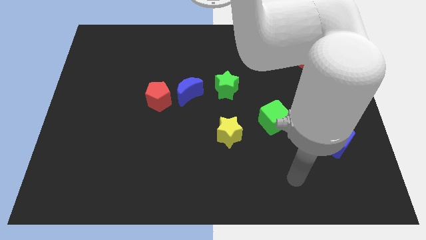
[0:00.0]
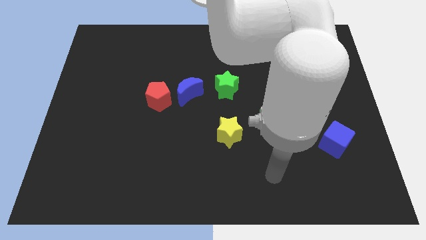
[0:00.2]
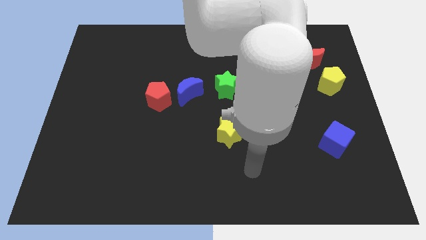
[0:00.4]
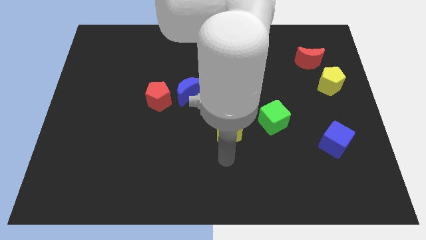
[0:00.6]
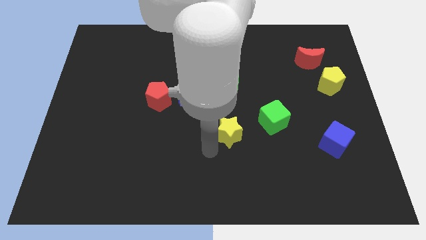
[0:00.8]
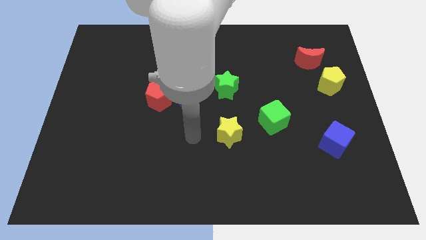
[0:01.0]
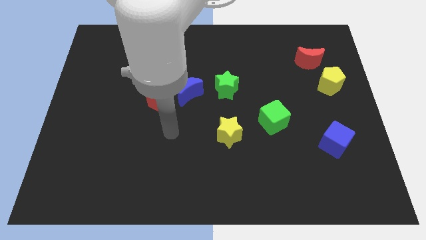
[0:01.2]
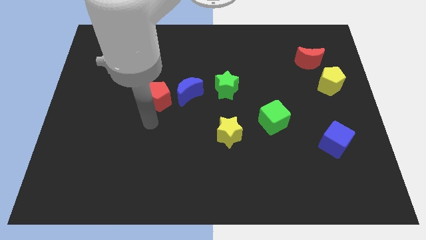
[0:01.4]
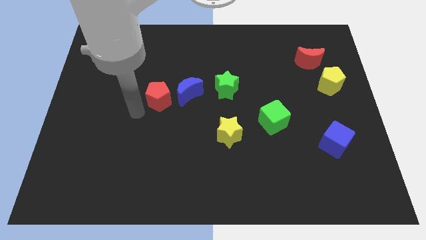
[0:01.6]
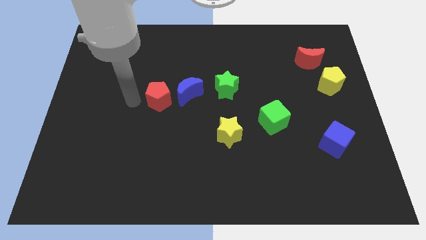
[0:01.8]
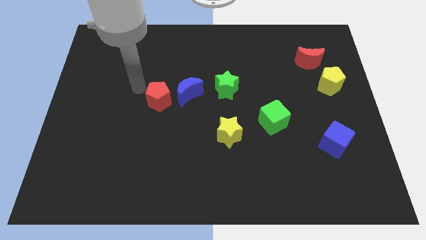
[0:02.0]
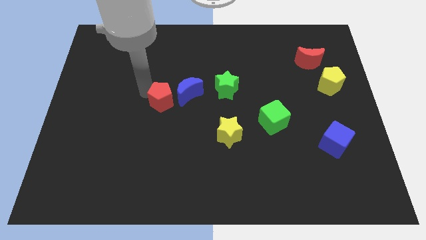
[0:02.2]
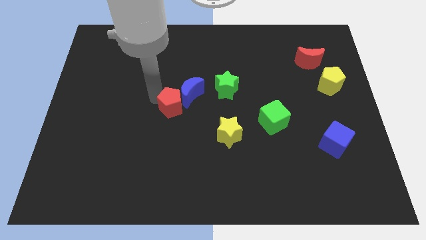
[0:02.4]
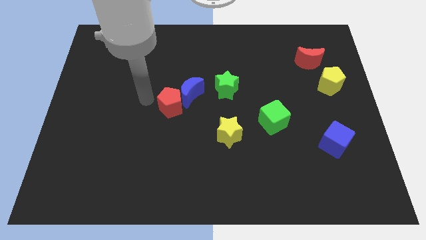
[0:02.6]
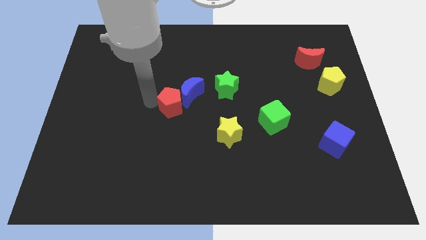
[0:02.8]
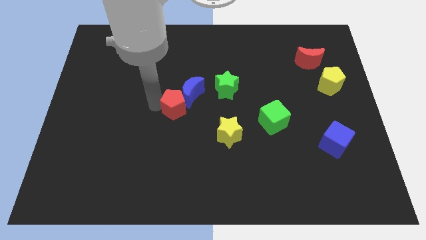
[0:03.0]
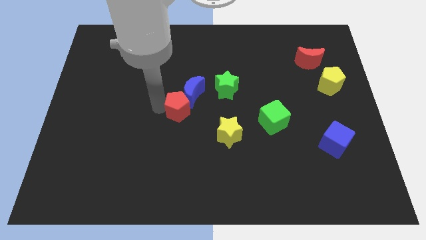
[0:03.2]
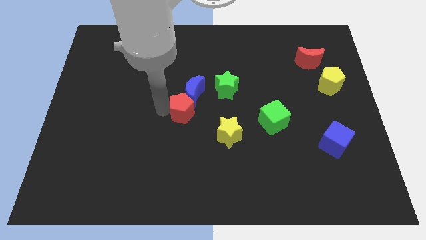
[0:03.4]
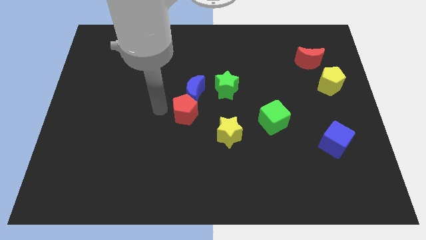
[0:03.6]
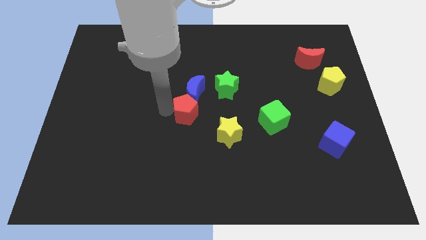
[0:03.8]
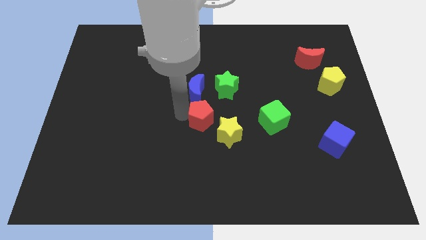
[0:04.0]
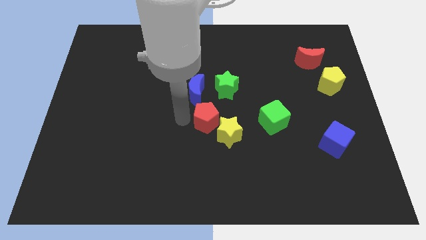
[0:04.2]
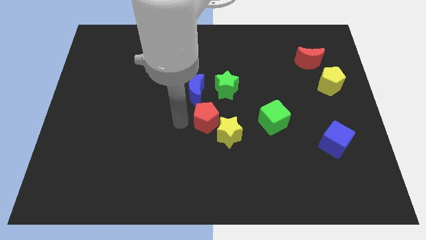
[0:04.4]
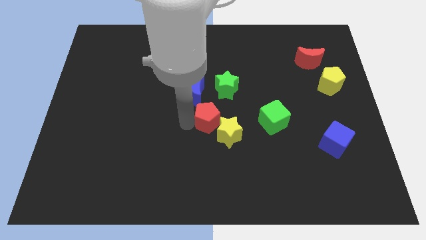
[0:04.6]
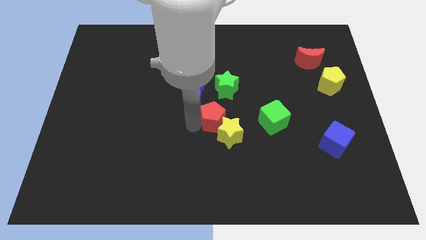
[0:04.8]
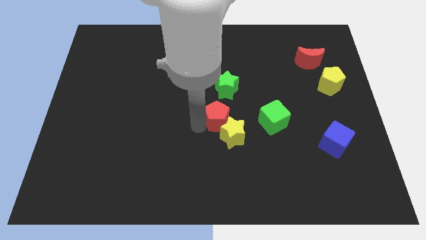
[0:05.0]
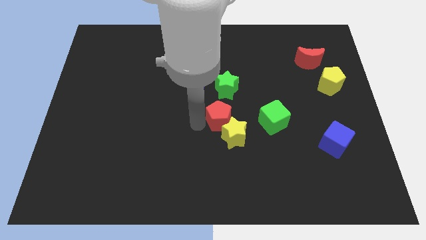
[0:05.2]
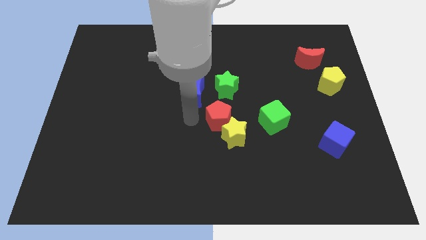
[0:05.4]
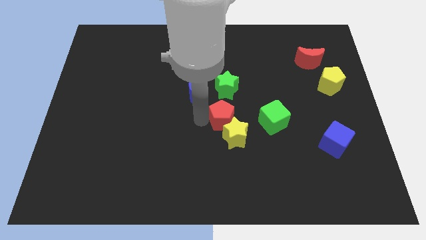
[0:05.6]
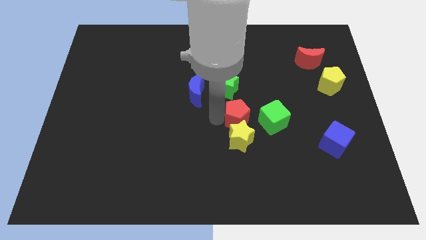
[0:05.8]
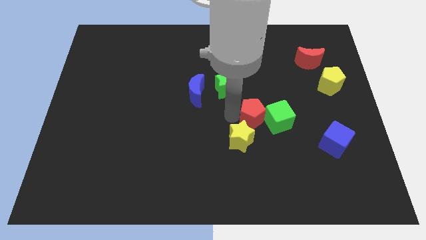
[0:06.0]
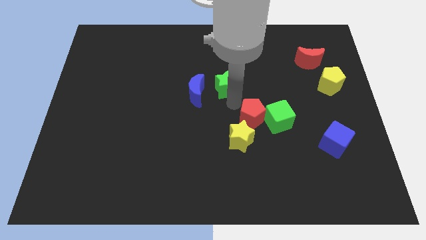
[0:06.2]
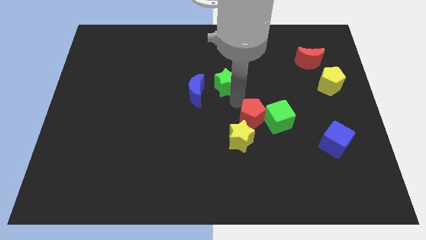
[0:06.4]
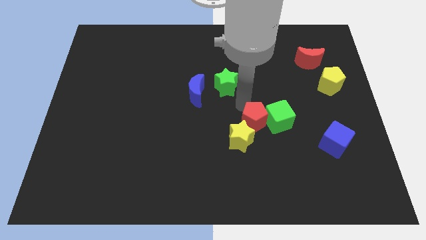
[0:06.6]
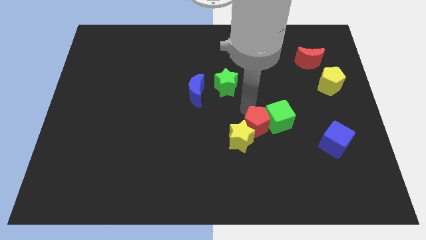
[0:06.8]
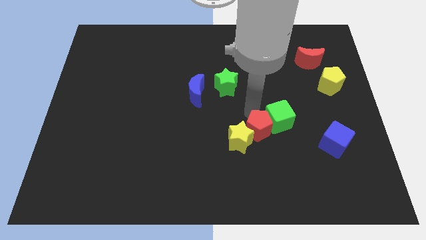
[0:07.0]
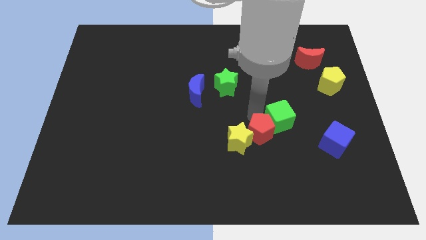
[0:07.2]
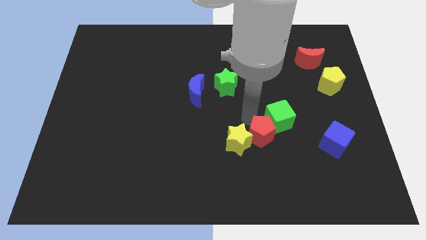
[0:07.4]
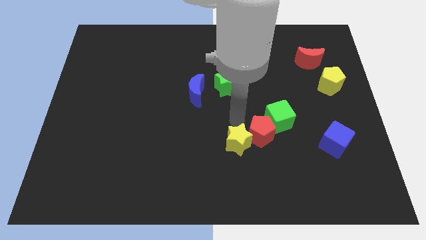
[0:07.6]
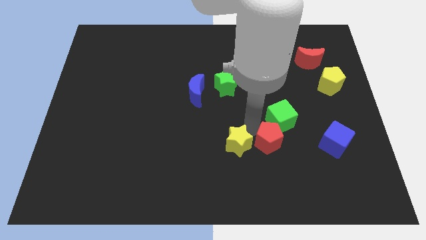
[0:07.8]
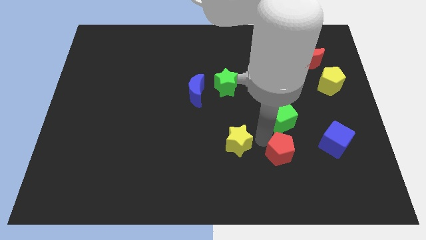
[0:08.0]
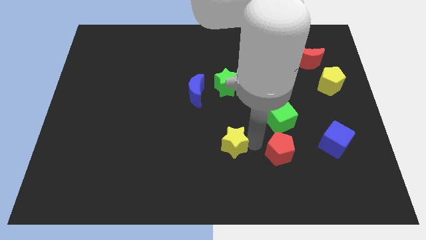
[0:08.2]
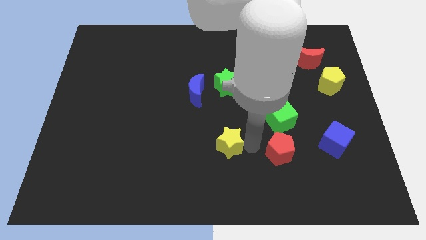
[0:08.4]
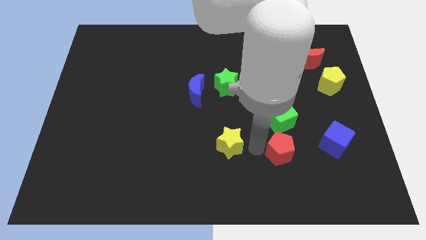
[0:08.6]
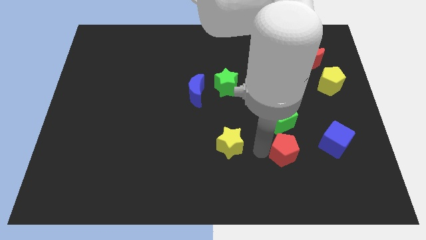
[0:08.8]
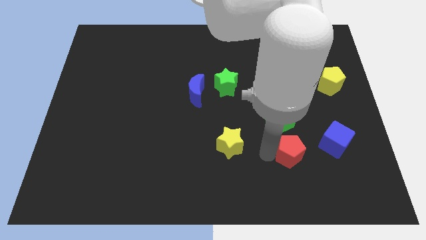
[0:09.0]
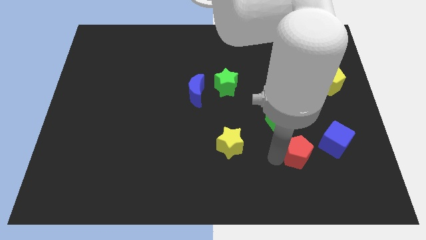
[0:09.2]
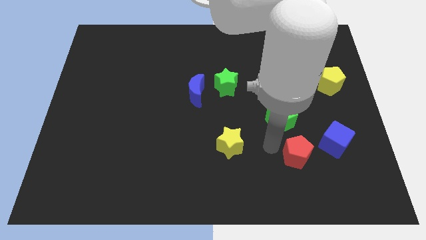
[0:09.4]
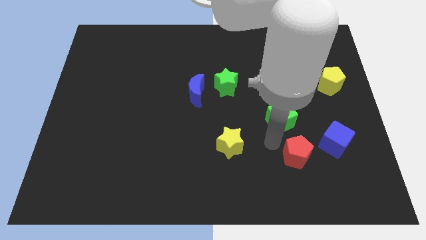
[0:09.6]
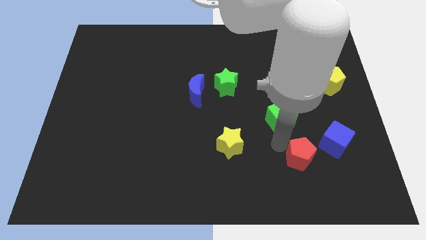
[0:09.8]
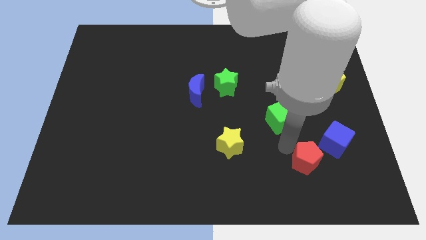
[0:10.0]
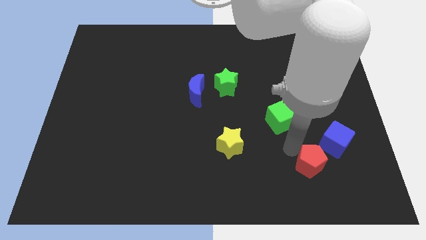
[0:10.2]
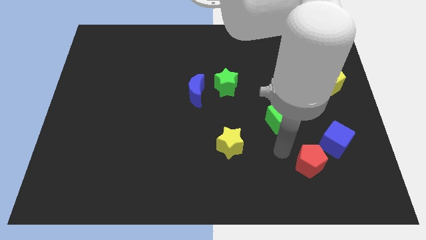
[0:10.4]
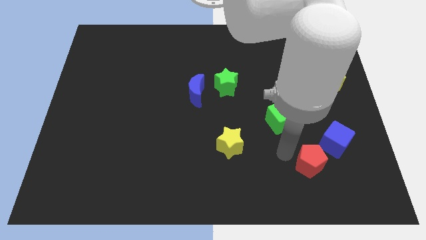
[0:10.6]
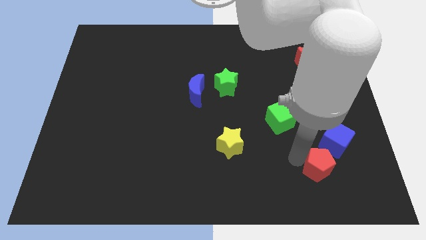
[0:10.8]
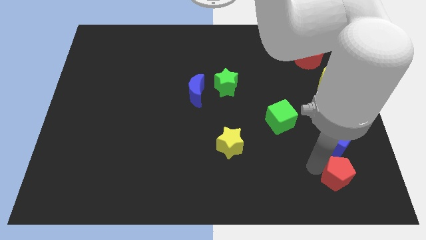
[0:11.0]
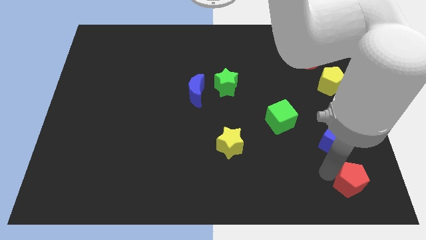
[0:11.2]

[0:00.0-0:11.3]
put the red pentagon to the lower right corner

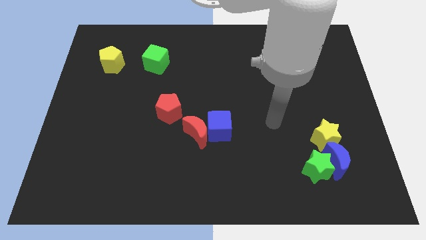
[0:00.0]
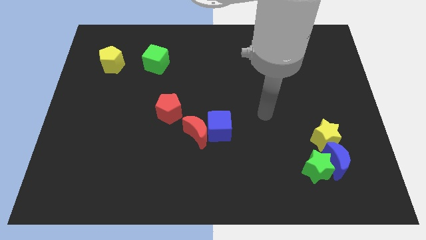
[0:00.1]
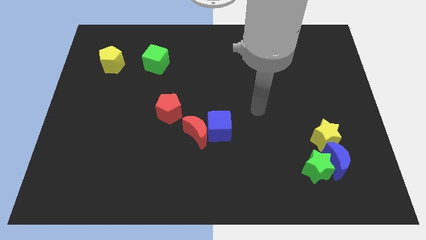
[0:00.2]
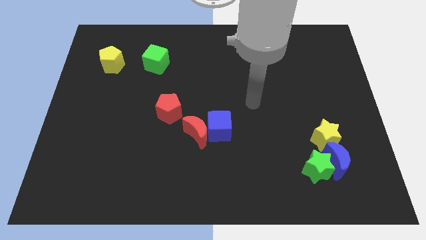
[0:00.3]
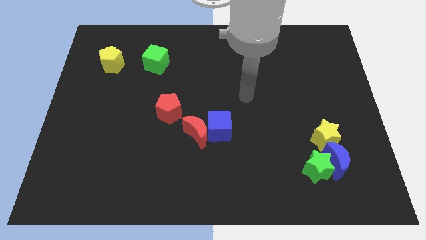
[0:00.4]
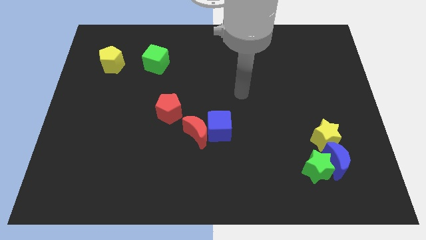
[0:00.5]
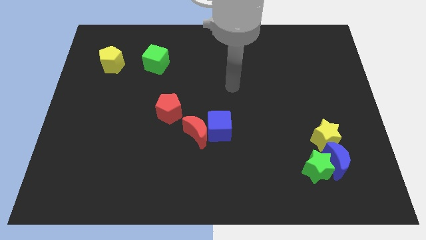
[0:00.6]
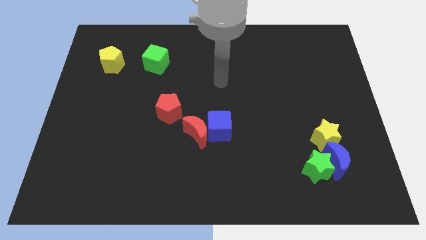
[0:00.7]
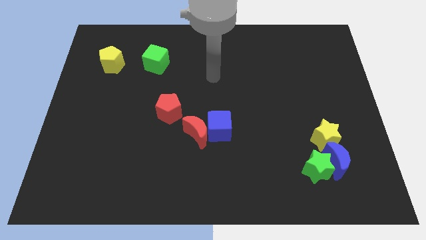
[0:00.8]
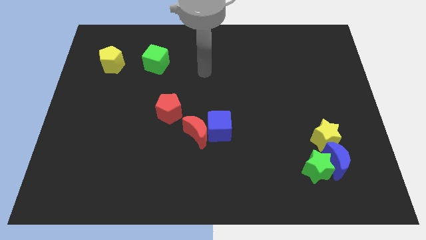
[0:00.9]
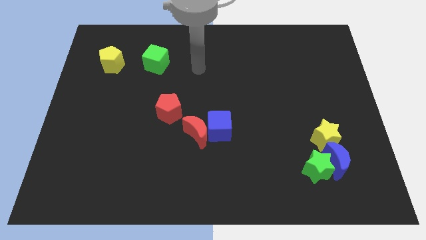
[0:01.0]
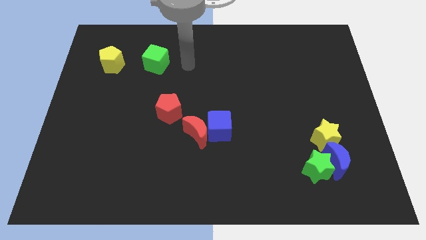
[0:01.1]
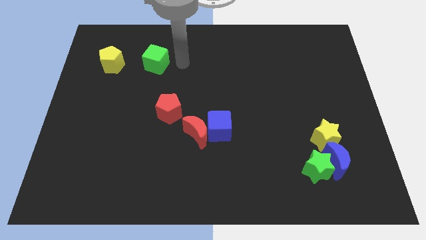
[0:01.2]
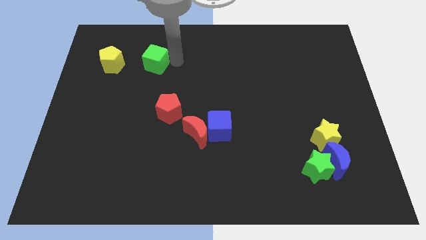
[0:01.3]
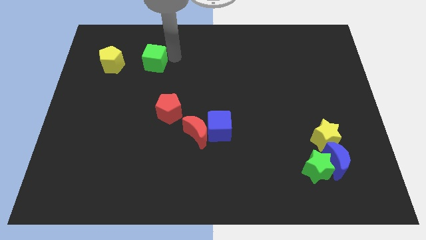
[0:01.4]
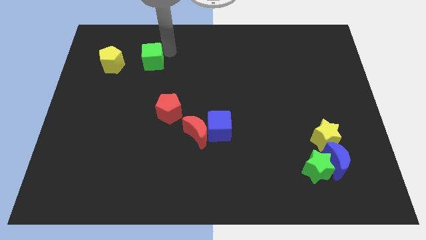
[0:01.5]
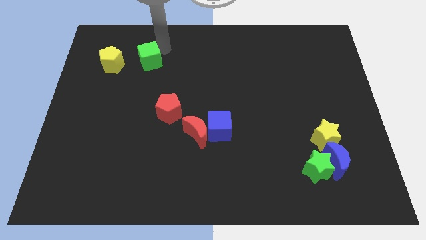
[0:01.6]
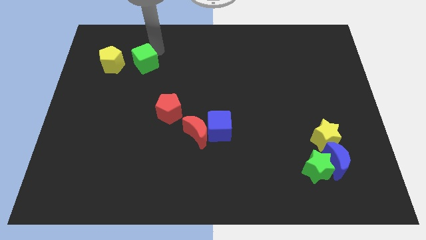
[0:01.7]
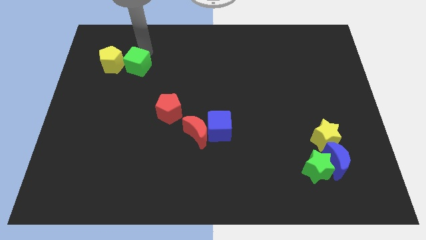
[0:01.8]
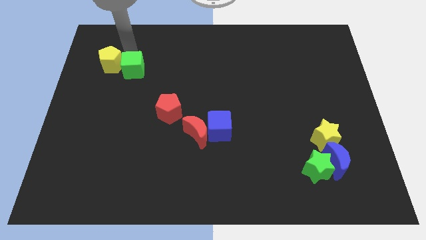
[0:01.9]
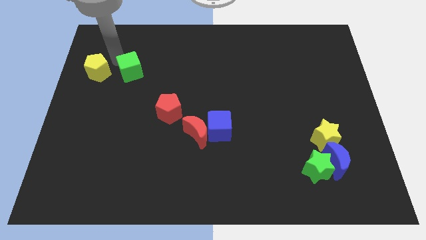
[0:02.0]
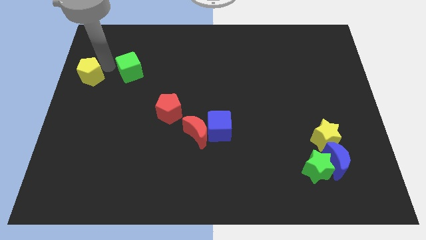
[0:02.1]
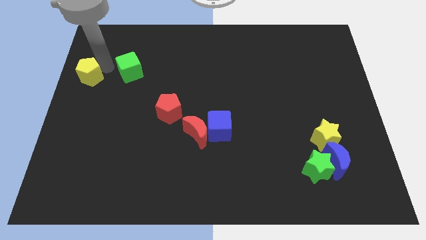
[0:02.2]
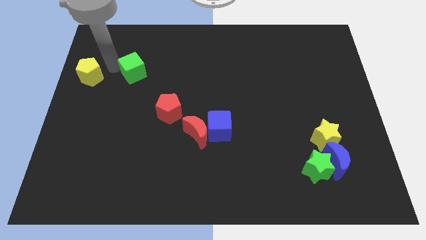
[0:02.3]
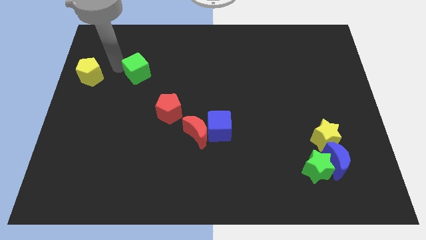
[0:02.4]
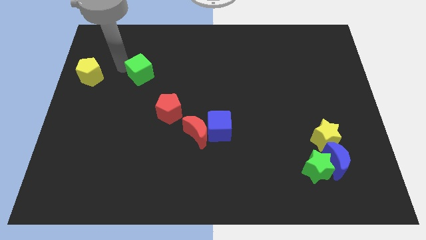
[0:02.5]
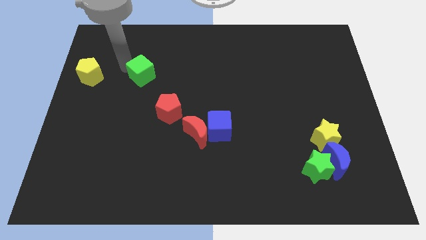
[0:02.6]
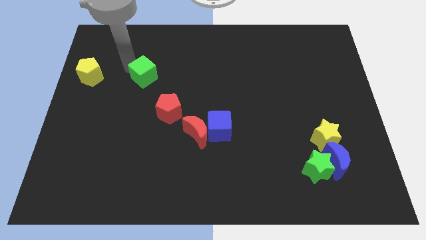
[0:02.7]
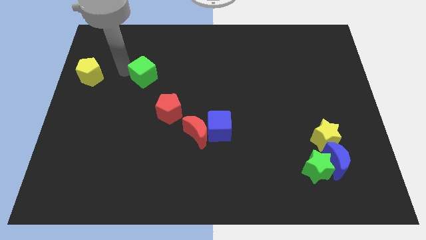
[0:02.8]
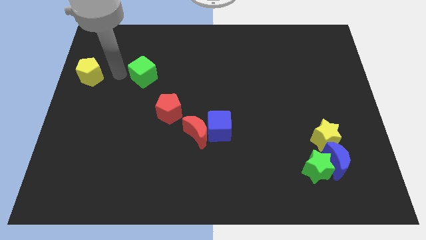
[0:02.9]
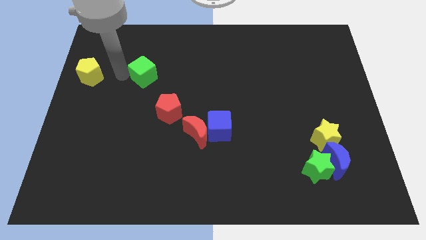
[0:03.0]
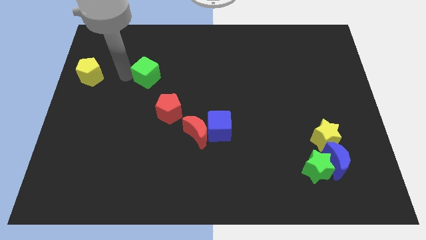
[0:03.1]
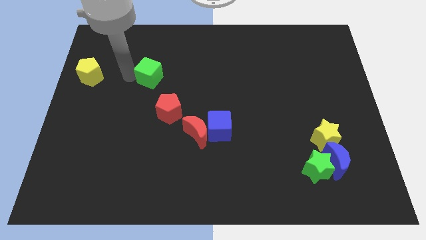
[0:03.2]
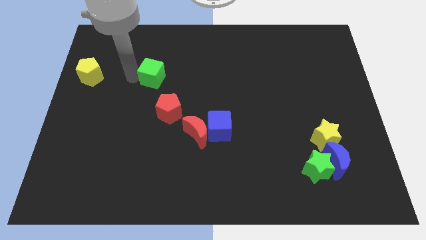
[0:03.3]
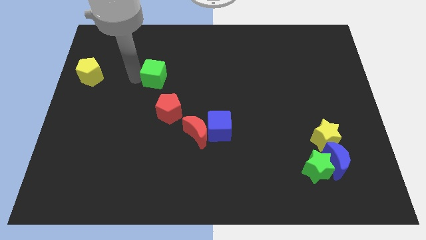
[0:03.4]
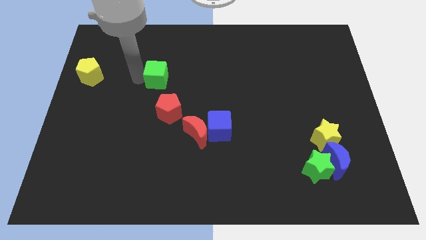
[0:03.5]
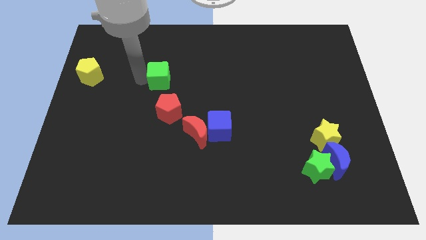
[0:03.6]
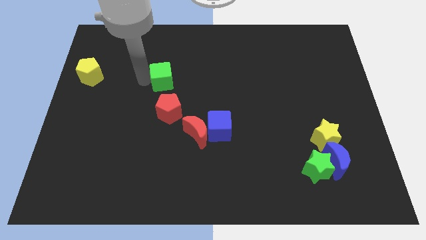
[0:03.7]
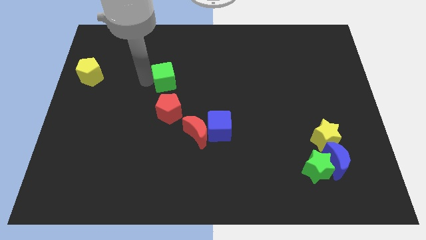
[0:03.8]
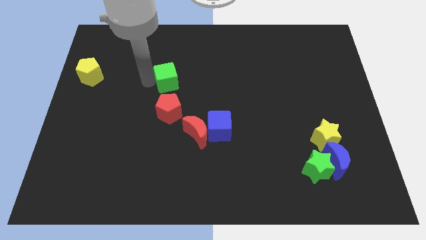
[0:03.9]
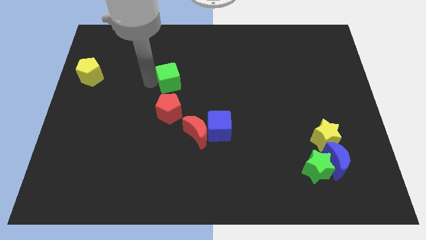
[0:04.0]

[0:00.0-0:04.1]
slide the green cube to the center of the board
